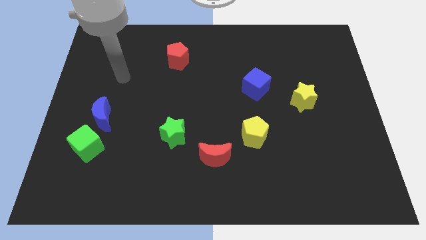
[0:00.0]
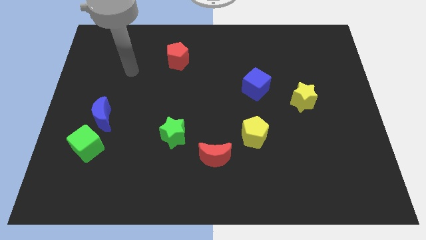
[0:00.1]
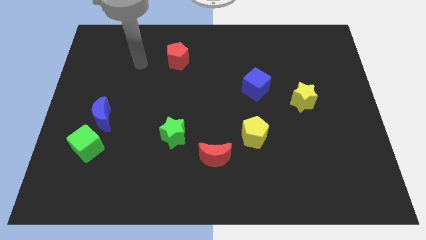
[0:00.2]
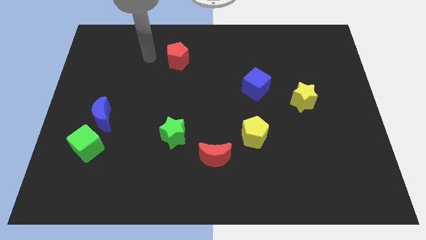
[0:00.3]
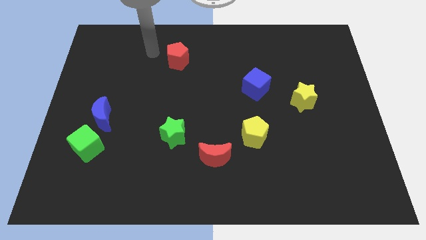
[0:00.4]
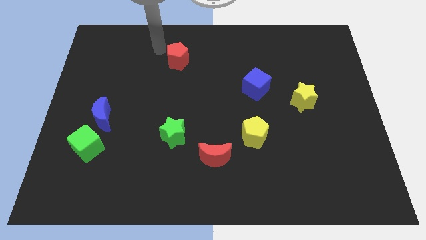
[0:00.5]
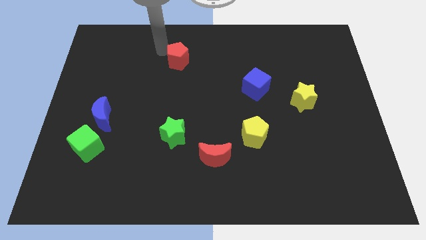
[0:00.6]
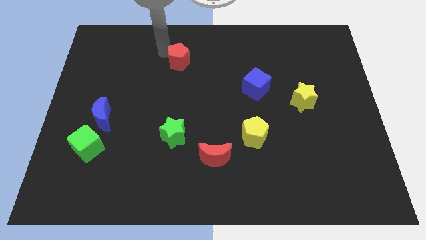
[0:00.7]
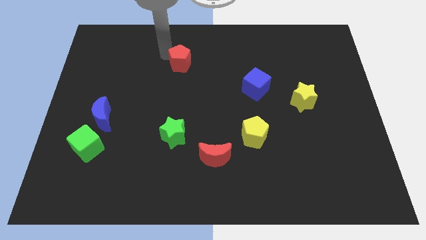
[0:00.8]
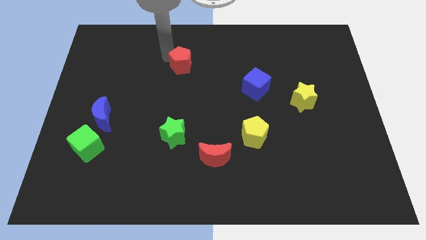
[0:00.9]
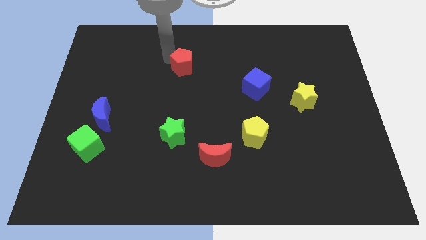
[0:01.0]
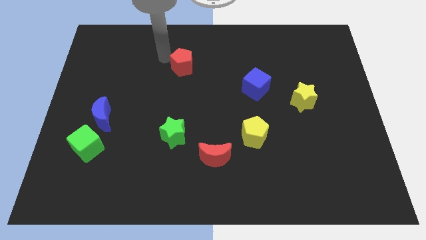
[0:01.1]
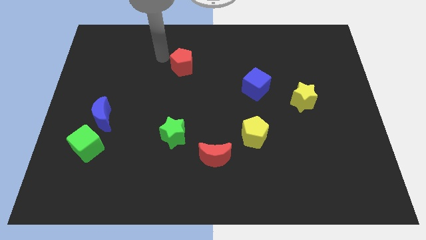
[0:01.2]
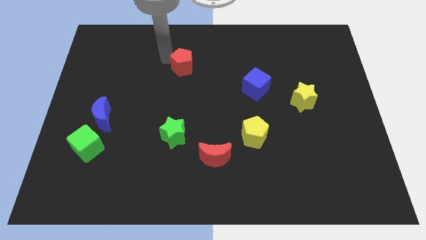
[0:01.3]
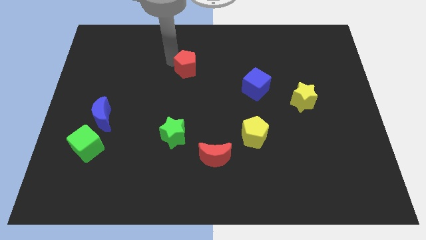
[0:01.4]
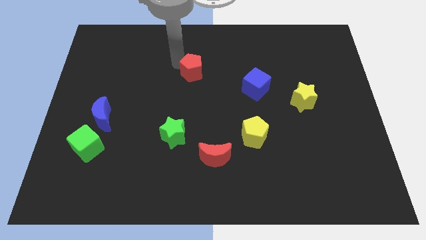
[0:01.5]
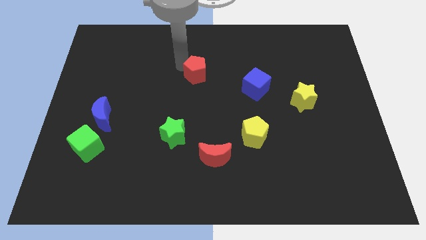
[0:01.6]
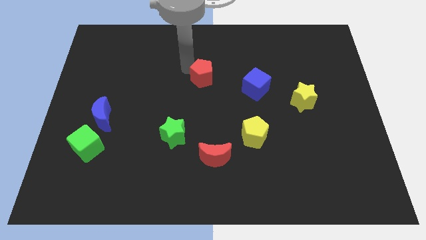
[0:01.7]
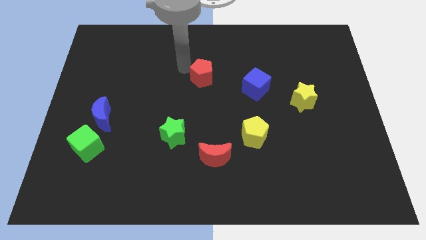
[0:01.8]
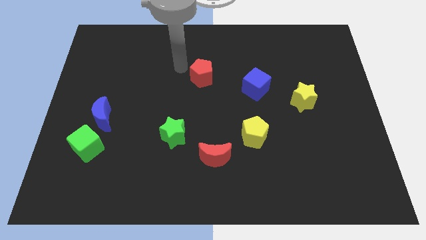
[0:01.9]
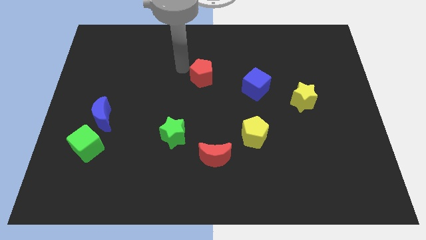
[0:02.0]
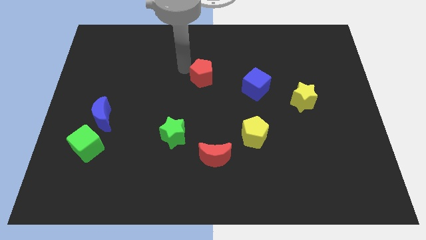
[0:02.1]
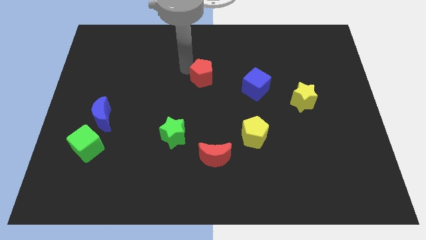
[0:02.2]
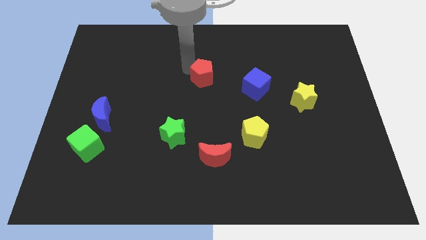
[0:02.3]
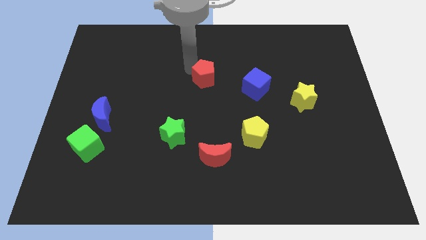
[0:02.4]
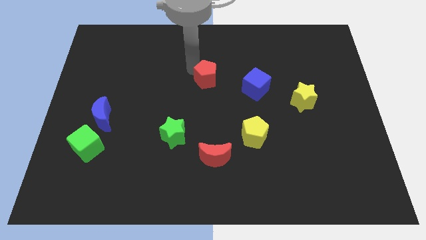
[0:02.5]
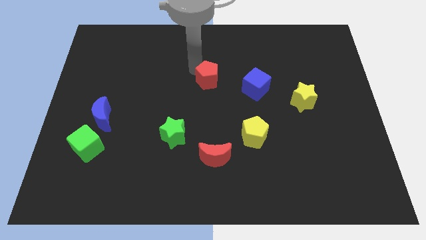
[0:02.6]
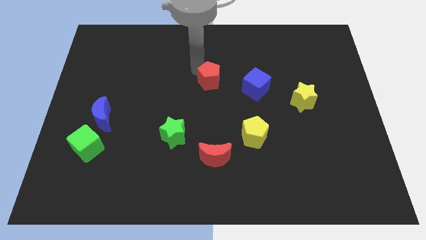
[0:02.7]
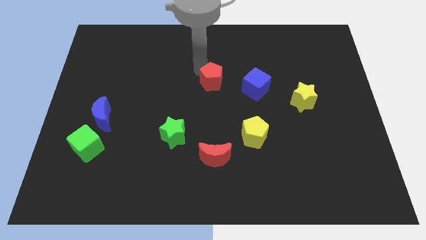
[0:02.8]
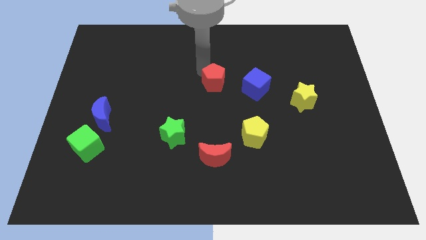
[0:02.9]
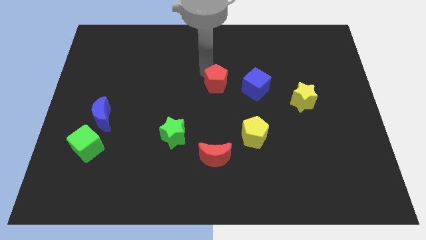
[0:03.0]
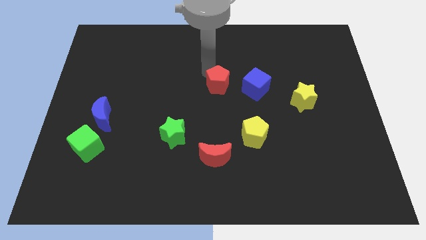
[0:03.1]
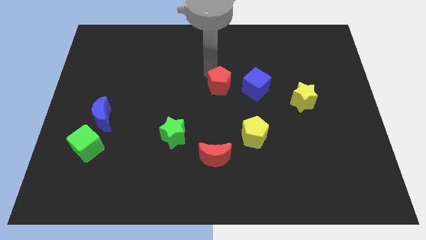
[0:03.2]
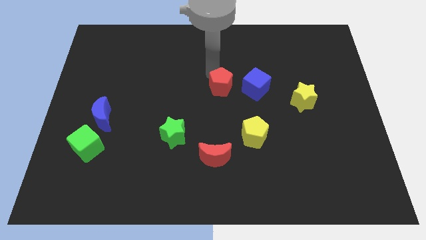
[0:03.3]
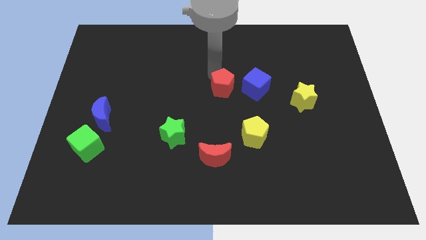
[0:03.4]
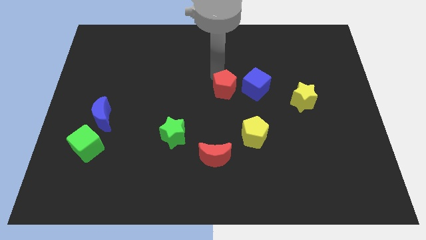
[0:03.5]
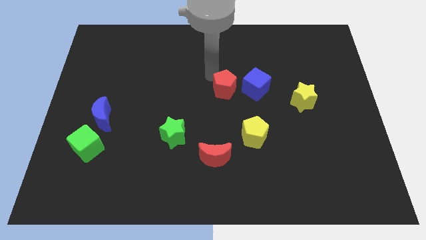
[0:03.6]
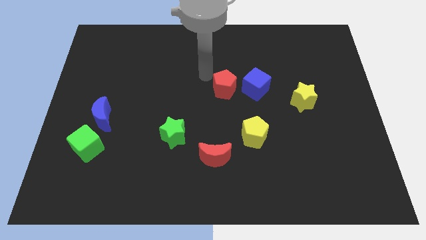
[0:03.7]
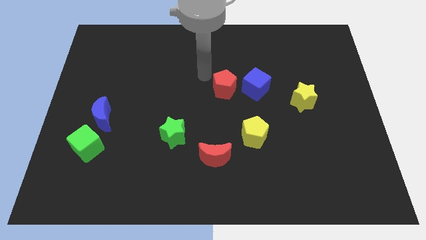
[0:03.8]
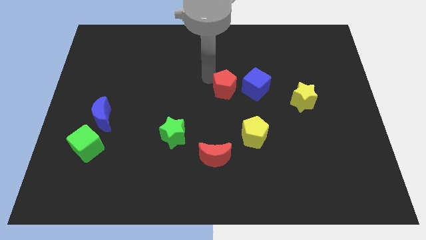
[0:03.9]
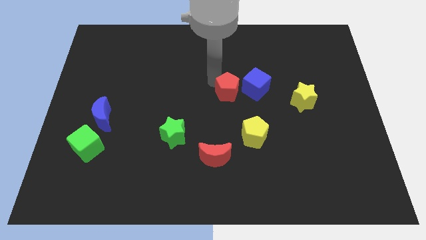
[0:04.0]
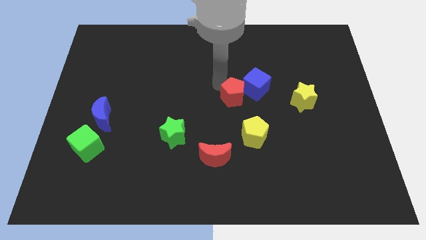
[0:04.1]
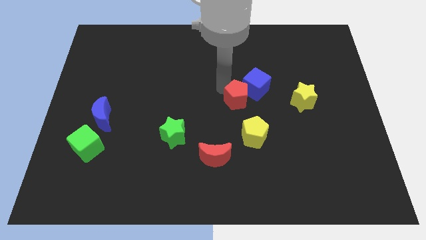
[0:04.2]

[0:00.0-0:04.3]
slide the red pentagon downwards and then to the right

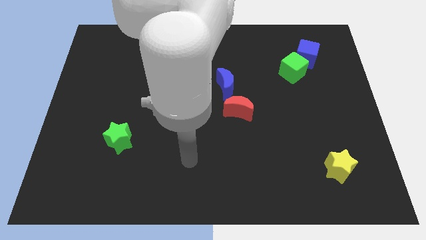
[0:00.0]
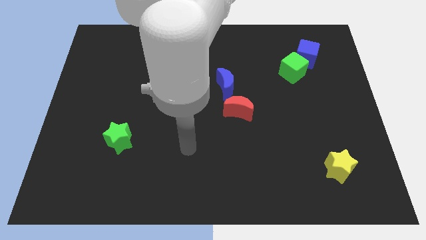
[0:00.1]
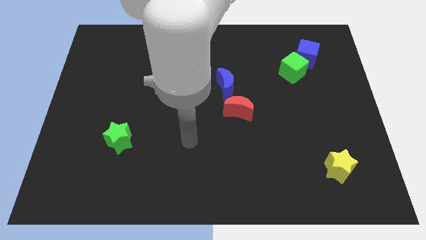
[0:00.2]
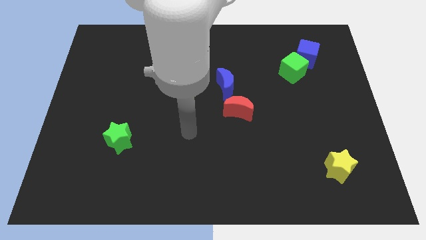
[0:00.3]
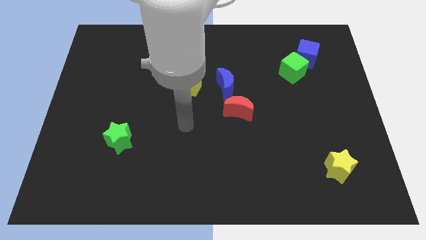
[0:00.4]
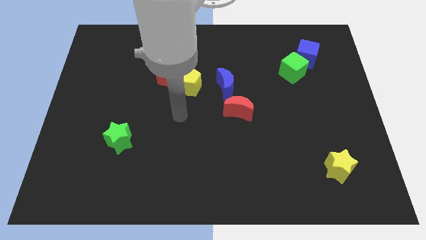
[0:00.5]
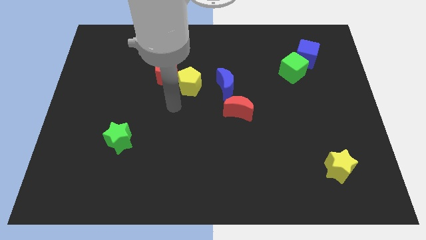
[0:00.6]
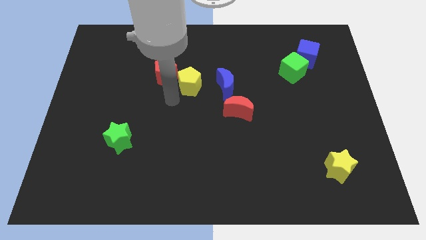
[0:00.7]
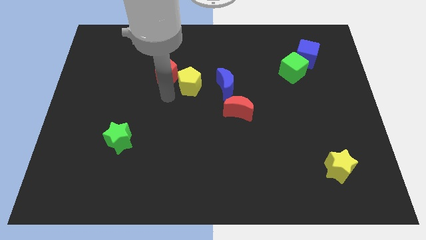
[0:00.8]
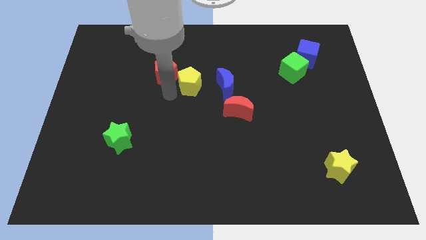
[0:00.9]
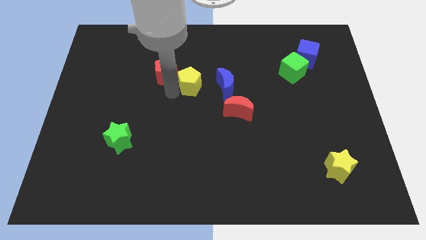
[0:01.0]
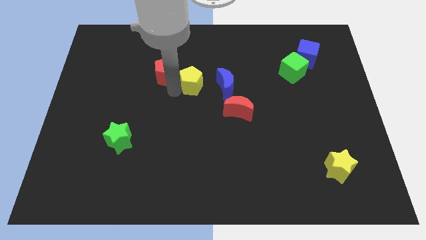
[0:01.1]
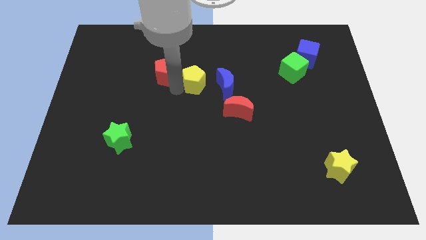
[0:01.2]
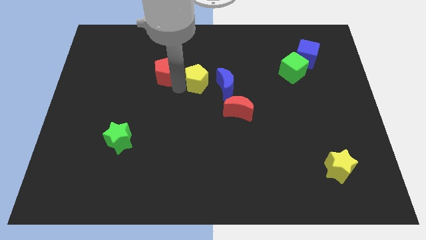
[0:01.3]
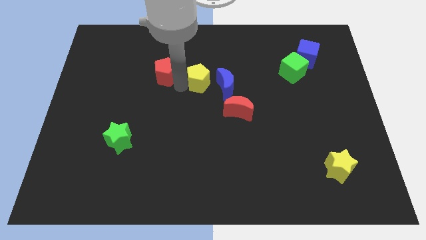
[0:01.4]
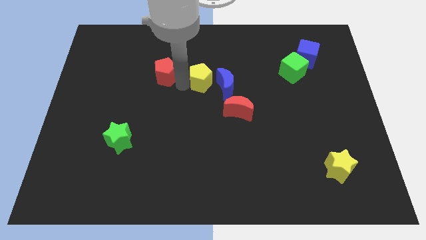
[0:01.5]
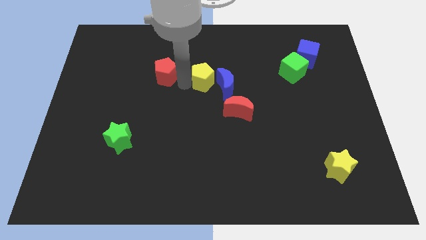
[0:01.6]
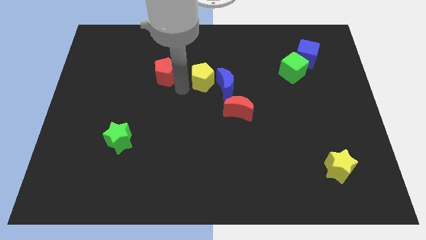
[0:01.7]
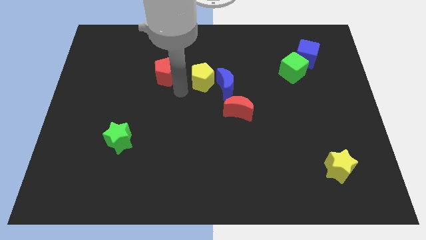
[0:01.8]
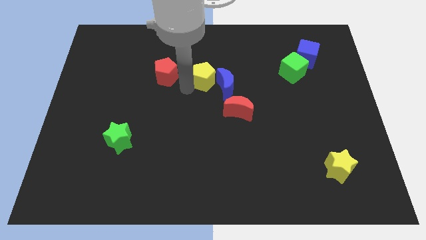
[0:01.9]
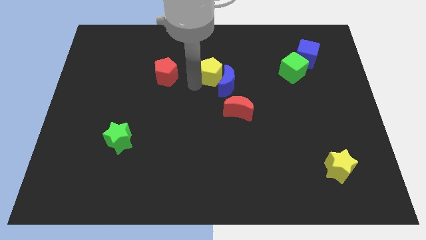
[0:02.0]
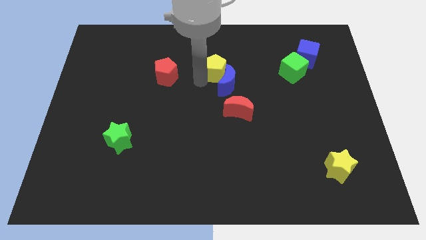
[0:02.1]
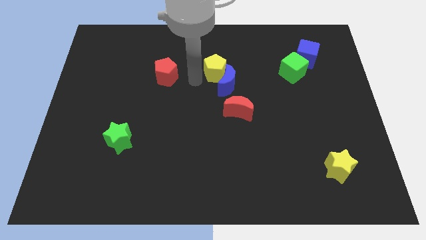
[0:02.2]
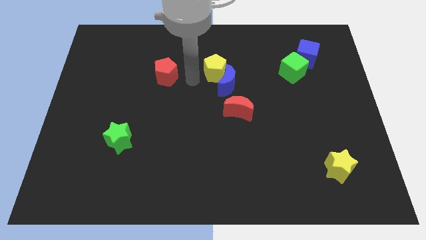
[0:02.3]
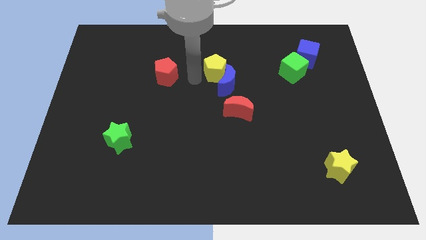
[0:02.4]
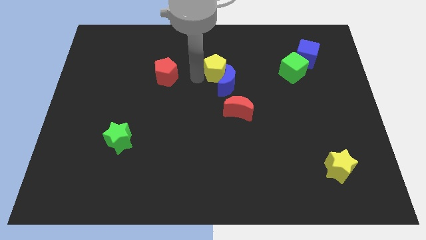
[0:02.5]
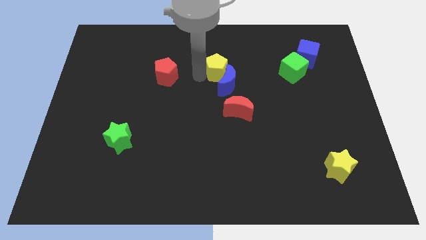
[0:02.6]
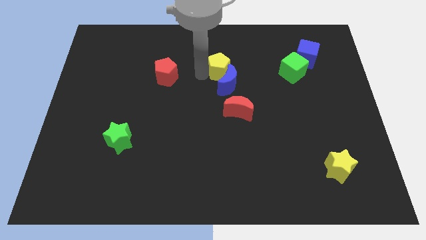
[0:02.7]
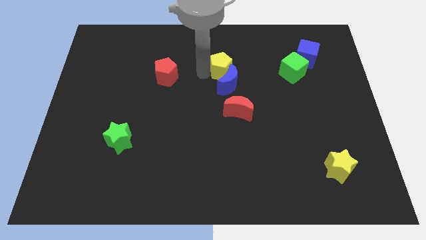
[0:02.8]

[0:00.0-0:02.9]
move the yellow pentagon somewhat right

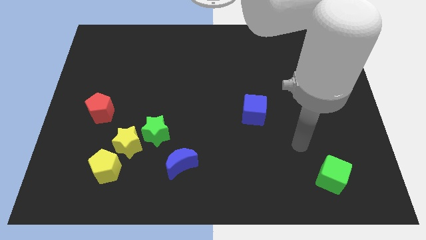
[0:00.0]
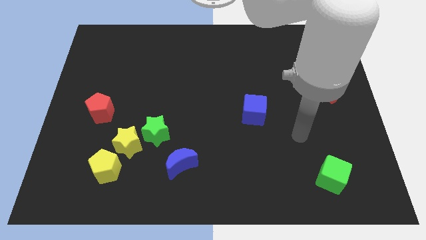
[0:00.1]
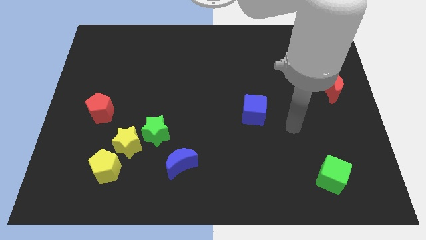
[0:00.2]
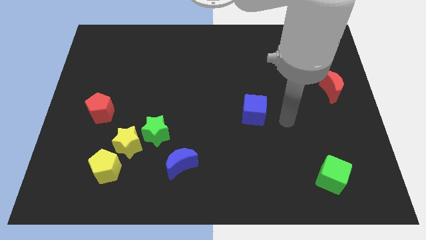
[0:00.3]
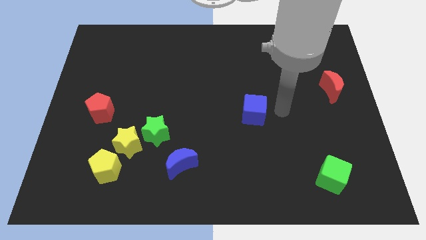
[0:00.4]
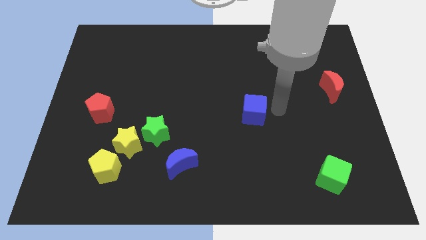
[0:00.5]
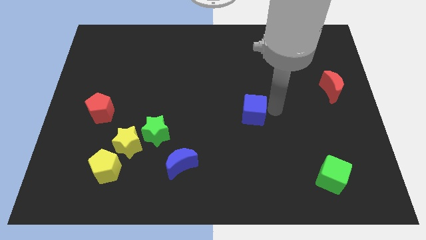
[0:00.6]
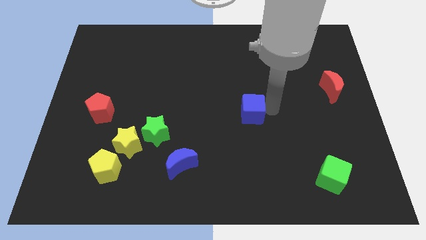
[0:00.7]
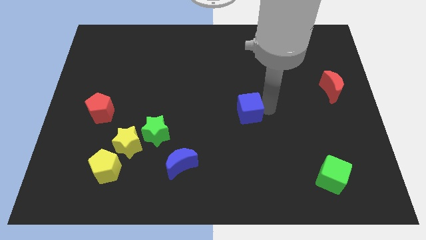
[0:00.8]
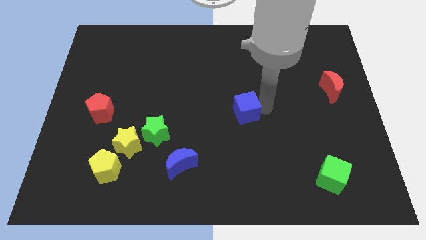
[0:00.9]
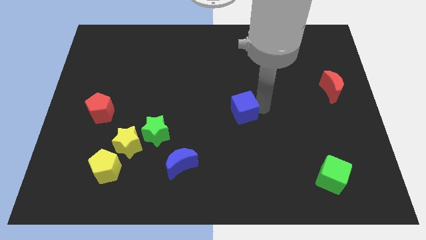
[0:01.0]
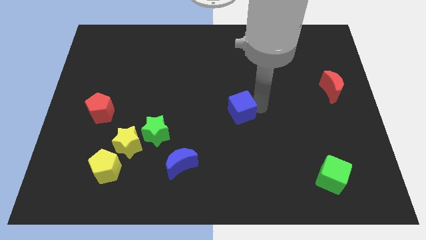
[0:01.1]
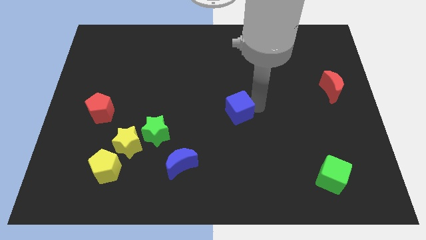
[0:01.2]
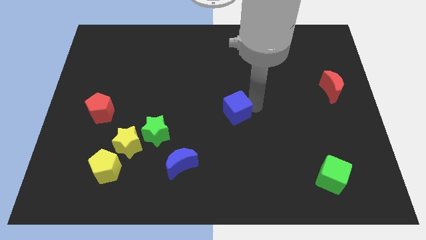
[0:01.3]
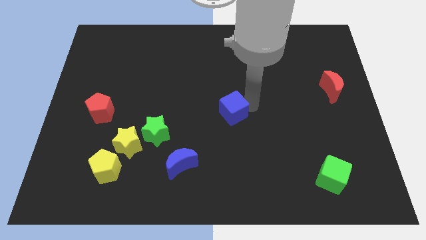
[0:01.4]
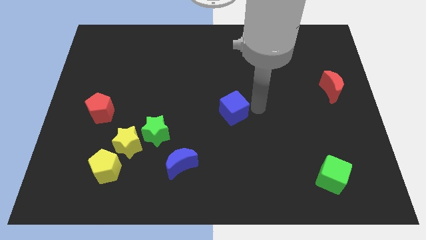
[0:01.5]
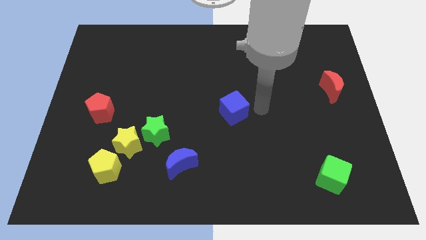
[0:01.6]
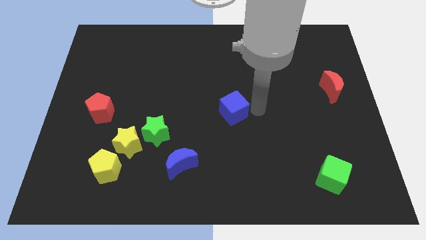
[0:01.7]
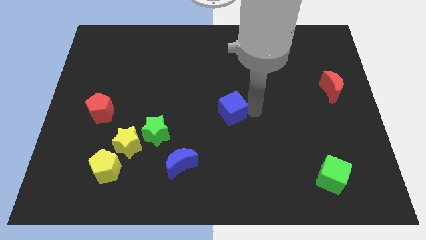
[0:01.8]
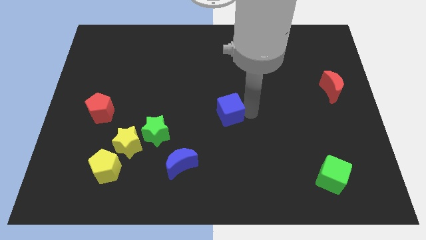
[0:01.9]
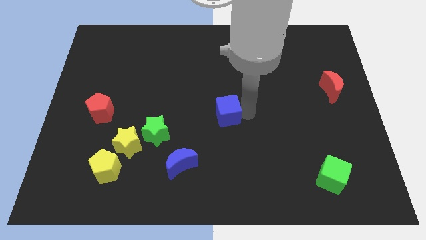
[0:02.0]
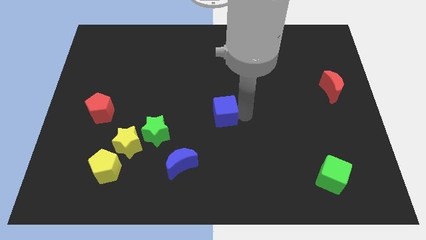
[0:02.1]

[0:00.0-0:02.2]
move the blue cube somewhat left
